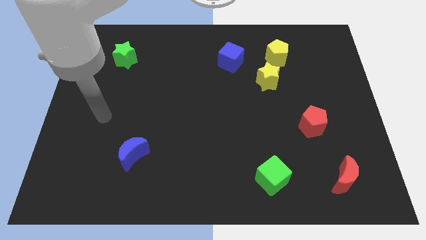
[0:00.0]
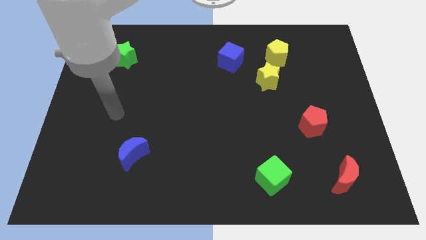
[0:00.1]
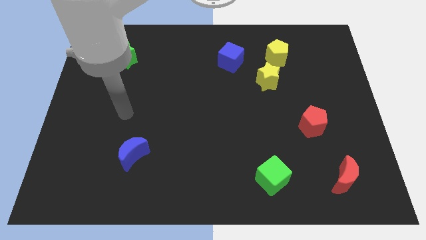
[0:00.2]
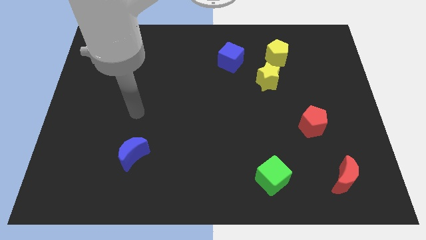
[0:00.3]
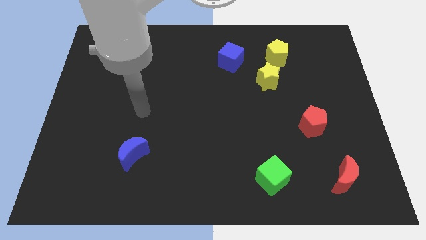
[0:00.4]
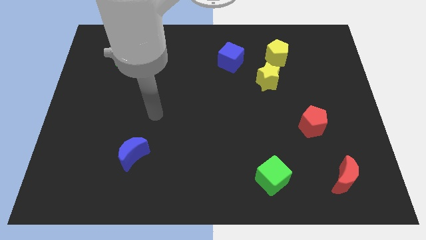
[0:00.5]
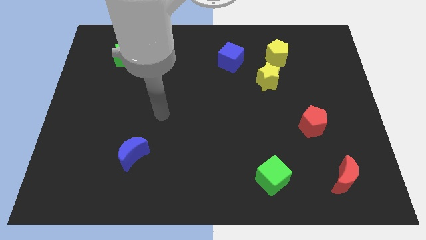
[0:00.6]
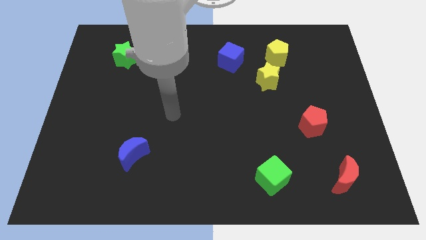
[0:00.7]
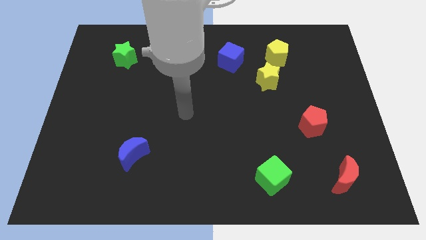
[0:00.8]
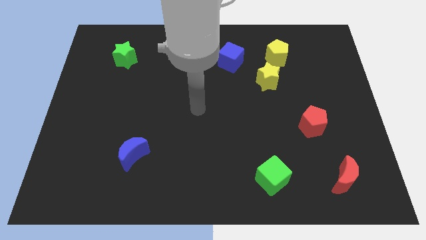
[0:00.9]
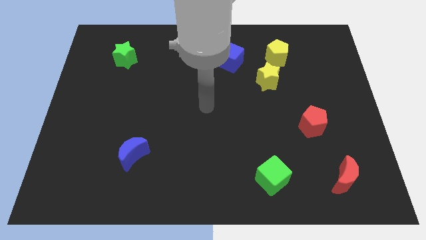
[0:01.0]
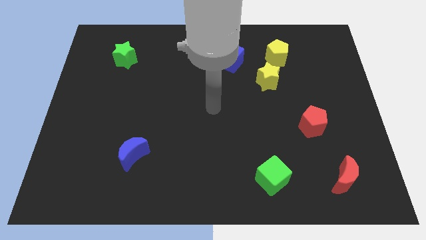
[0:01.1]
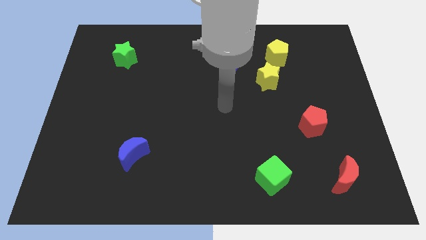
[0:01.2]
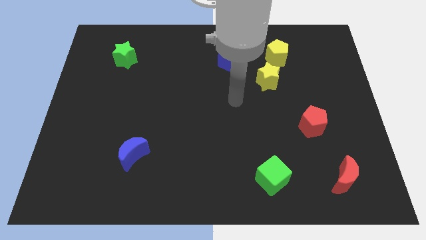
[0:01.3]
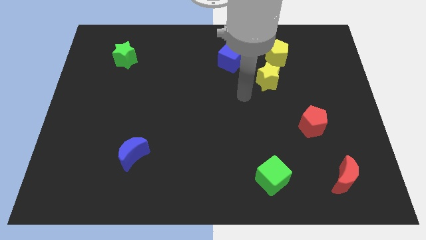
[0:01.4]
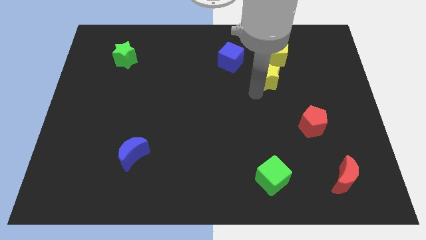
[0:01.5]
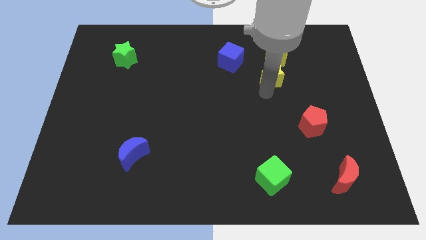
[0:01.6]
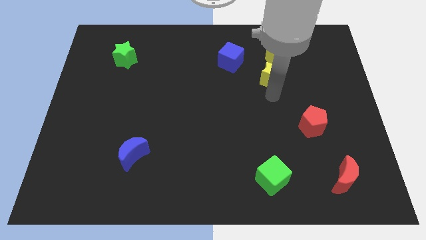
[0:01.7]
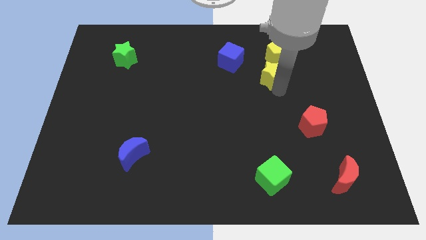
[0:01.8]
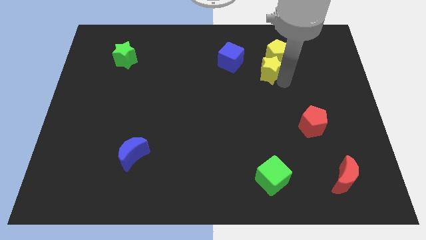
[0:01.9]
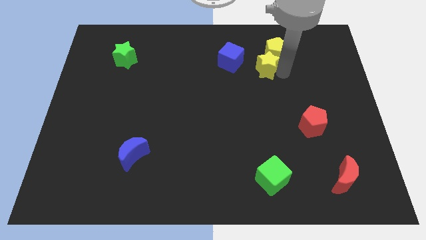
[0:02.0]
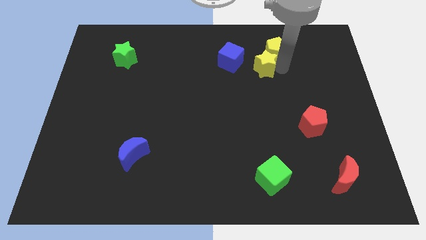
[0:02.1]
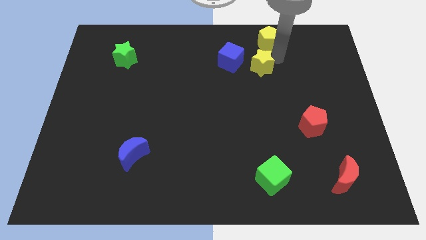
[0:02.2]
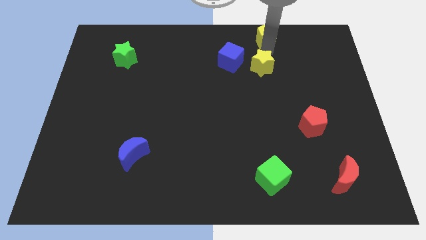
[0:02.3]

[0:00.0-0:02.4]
separate the yellow star from the yellow pentagon

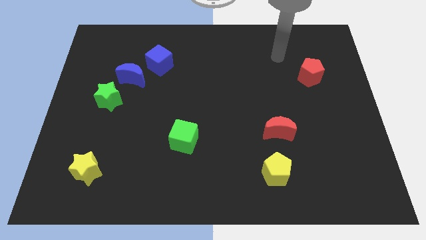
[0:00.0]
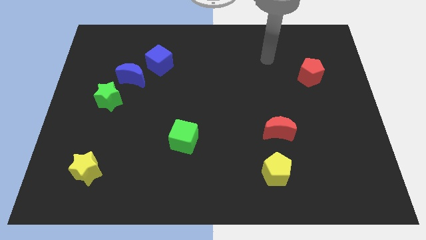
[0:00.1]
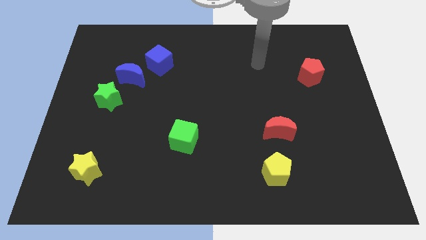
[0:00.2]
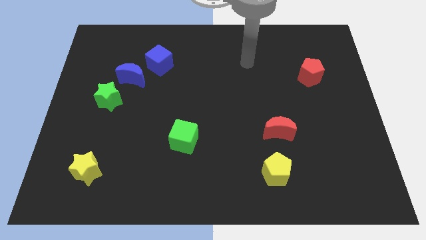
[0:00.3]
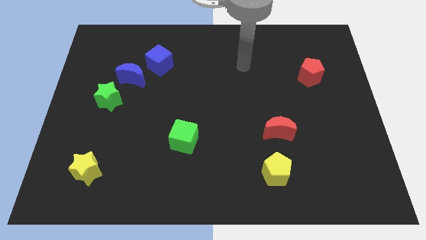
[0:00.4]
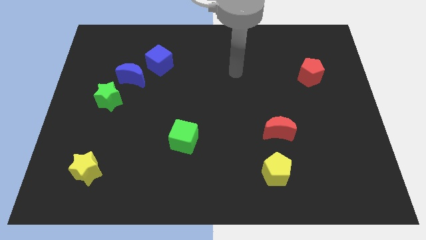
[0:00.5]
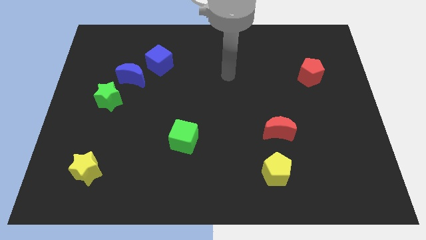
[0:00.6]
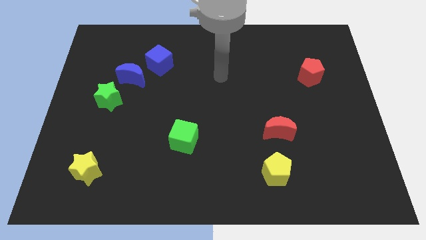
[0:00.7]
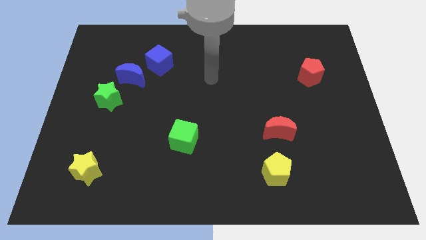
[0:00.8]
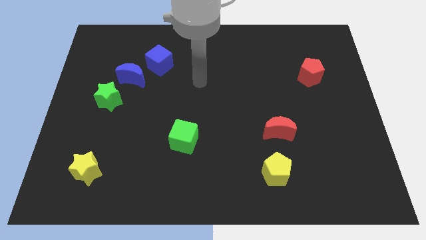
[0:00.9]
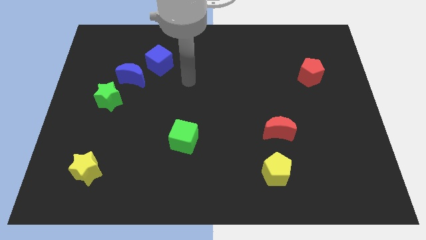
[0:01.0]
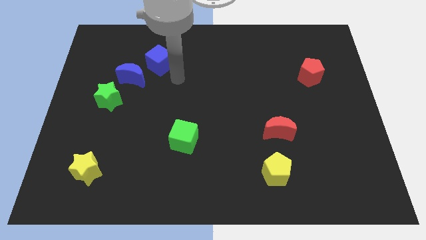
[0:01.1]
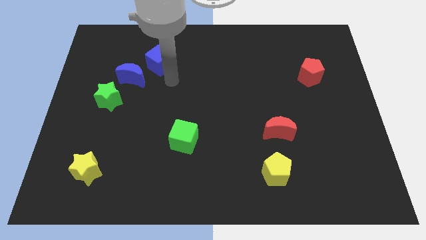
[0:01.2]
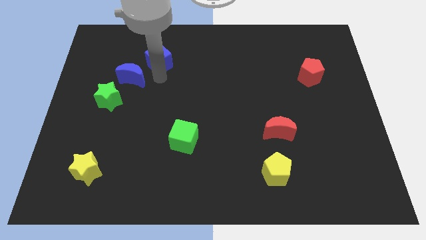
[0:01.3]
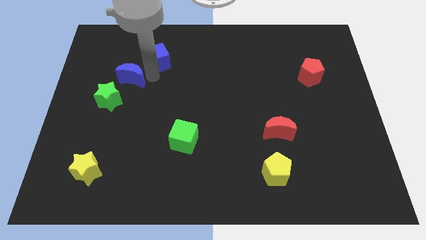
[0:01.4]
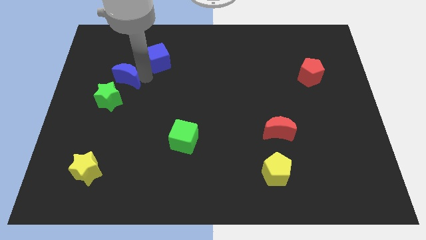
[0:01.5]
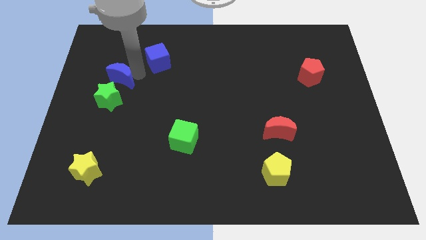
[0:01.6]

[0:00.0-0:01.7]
pull the blue cube apart from the blue moon

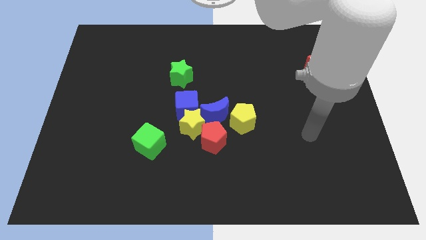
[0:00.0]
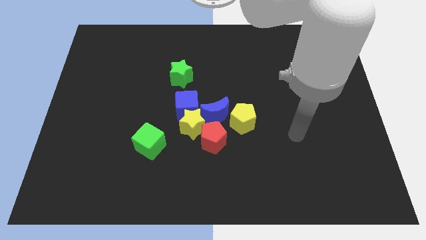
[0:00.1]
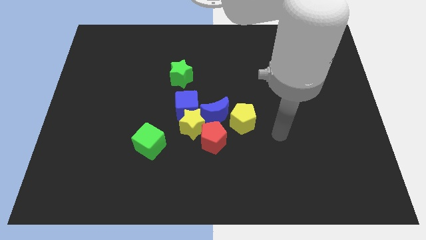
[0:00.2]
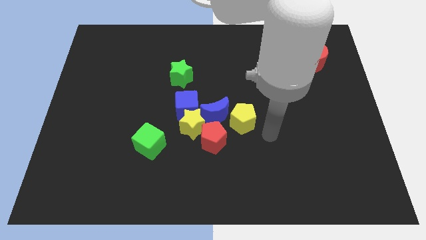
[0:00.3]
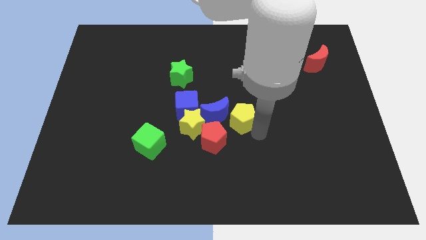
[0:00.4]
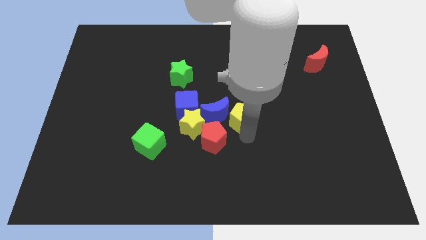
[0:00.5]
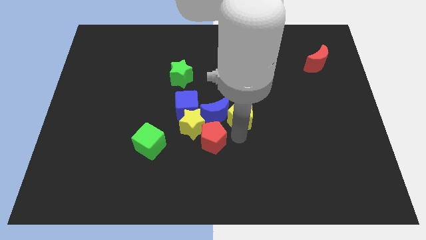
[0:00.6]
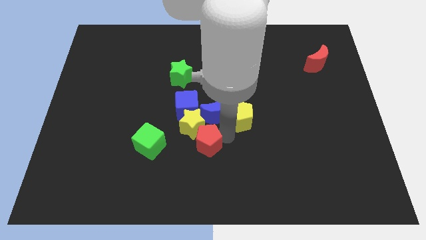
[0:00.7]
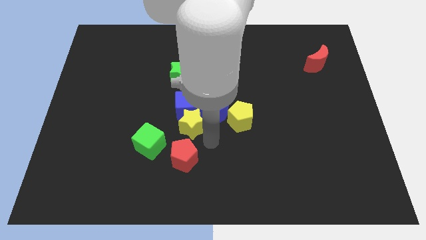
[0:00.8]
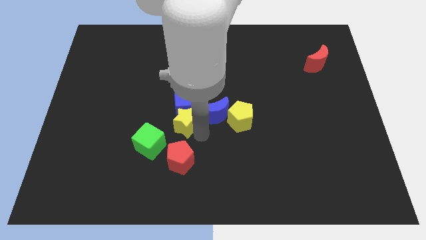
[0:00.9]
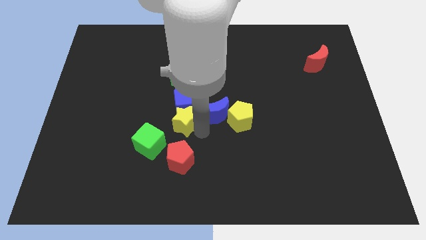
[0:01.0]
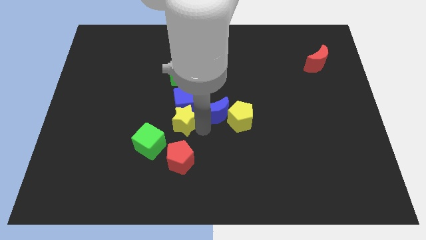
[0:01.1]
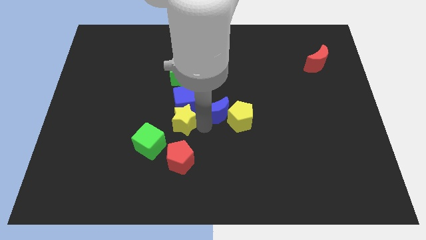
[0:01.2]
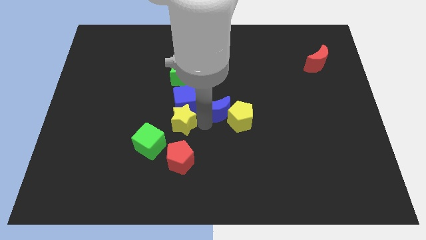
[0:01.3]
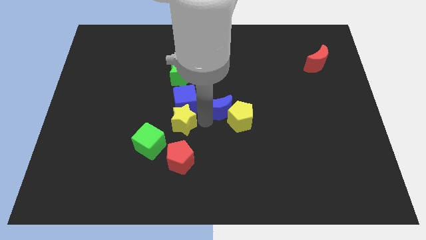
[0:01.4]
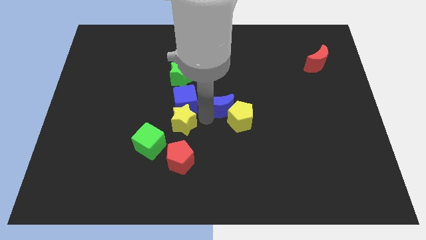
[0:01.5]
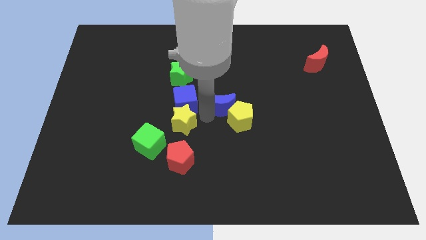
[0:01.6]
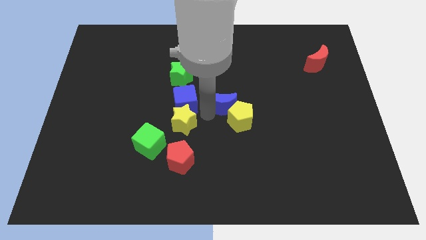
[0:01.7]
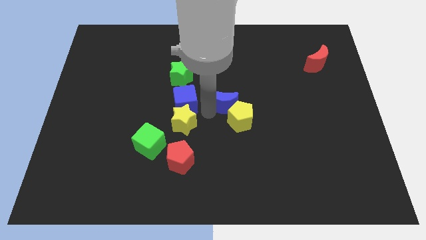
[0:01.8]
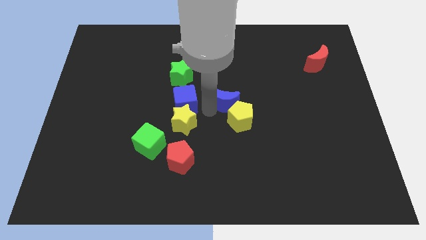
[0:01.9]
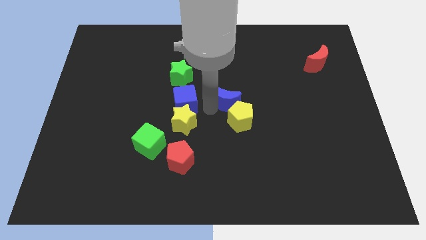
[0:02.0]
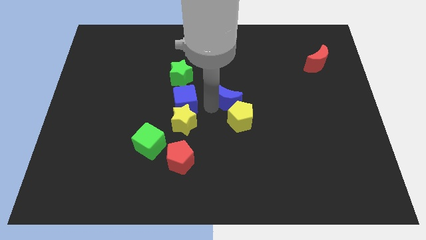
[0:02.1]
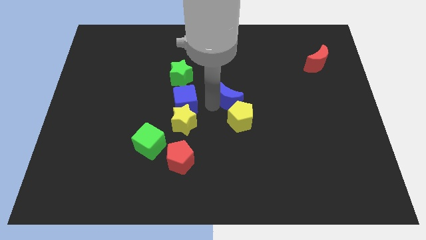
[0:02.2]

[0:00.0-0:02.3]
pull the blue moon apart from the group of blocks

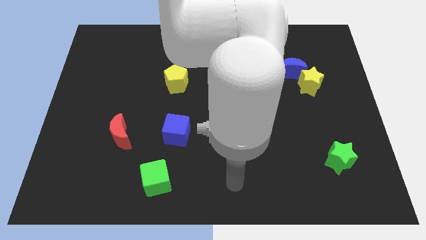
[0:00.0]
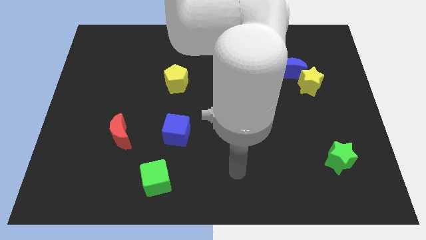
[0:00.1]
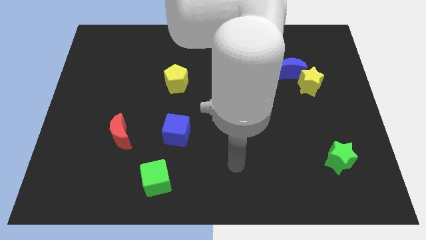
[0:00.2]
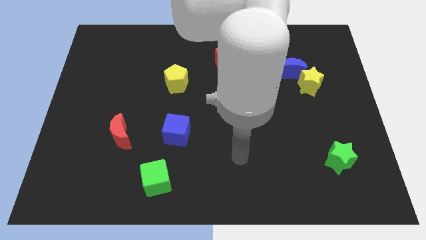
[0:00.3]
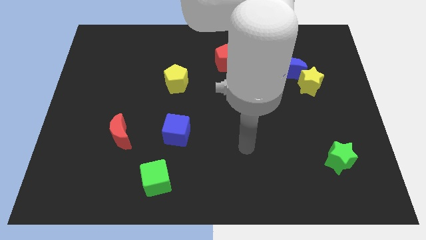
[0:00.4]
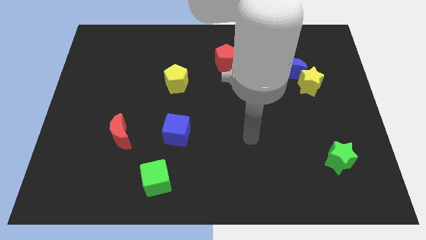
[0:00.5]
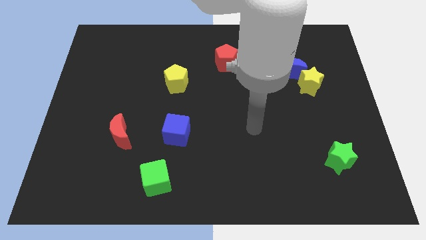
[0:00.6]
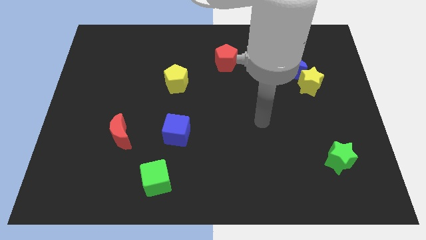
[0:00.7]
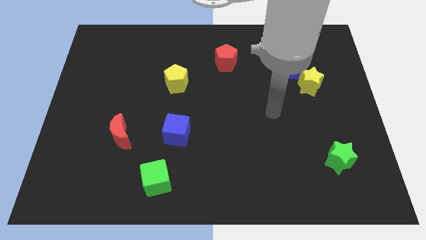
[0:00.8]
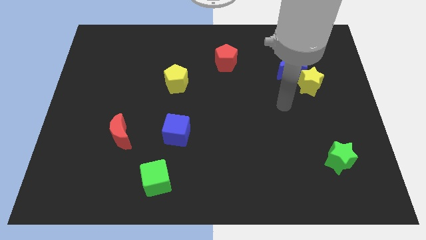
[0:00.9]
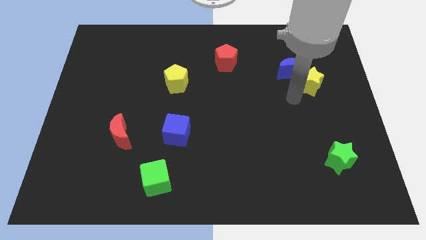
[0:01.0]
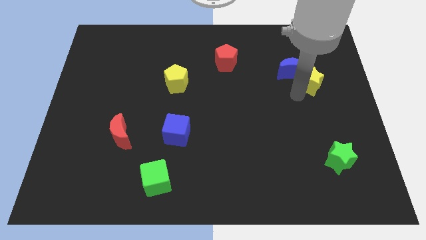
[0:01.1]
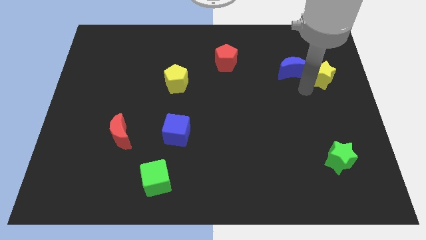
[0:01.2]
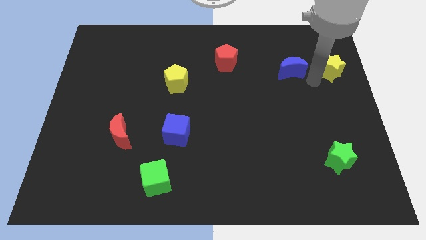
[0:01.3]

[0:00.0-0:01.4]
separate the blue moon from the yellow star

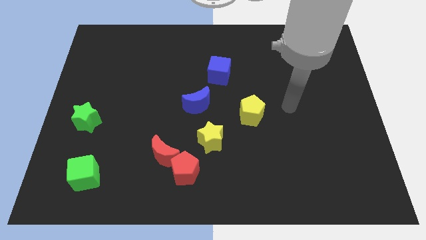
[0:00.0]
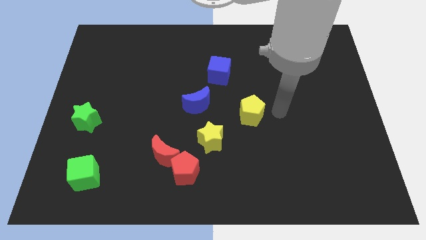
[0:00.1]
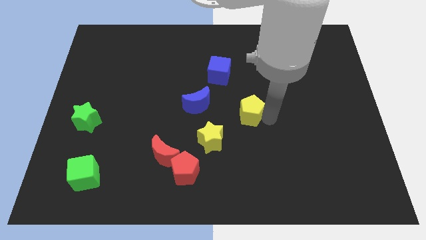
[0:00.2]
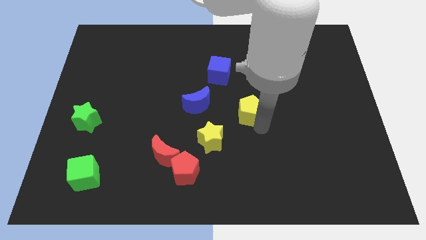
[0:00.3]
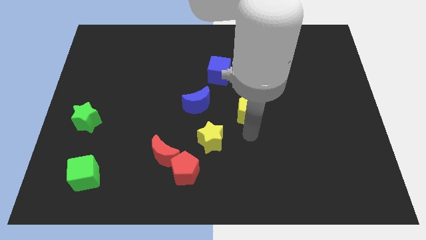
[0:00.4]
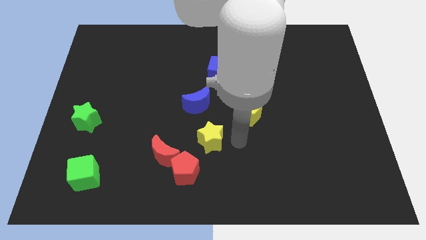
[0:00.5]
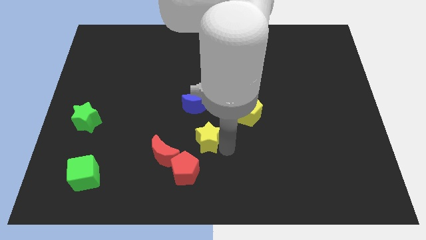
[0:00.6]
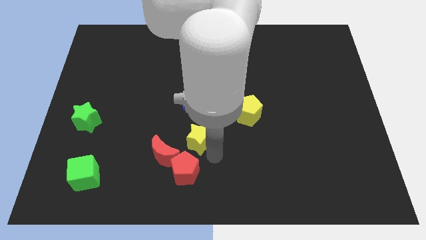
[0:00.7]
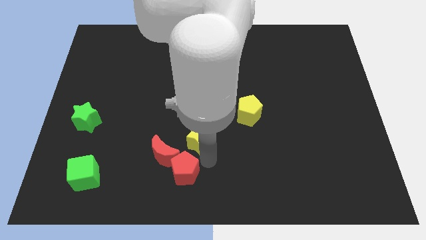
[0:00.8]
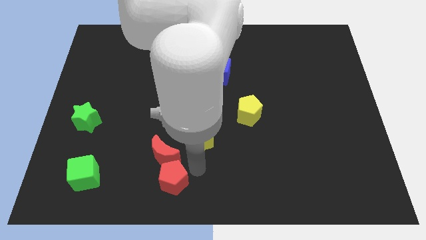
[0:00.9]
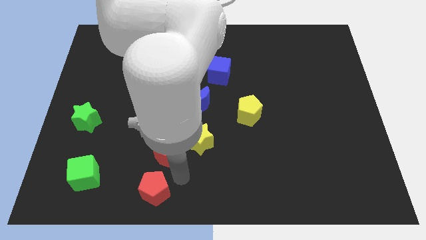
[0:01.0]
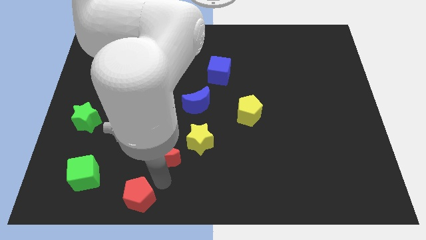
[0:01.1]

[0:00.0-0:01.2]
move the red moon away from the red pentagon

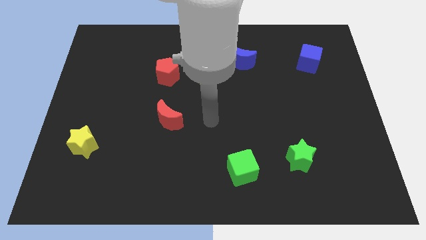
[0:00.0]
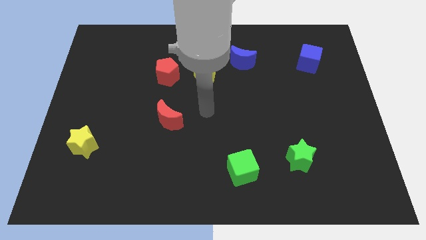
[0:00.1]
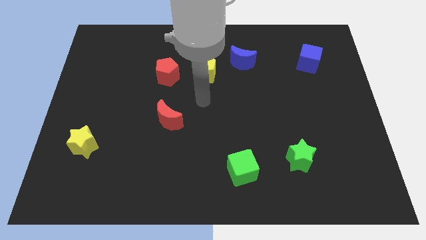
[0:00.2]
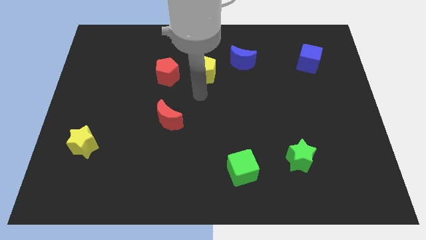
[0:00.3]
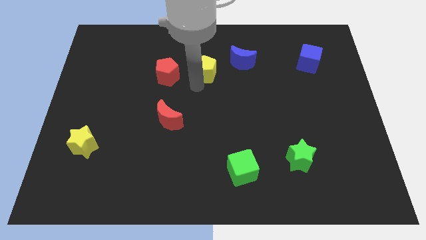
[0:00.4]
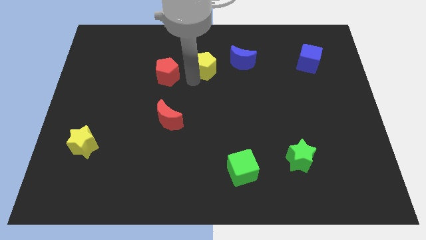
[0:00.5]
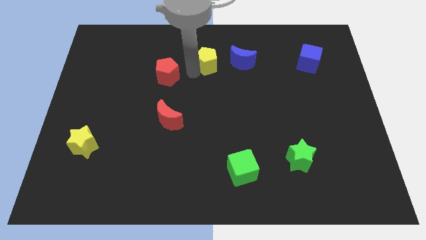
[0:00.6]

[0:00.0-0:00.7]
pull the red pentagon apart from the yellow pentagon
